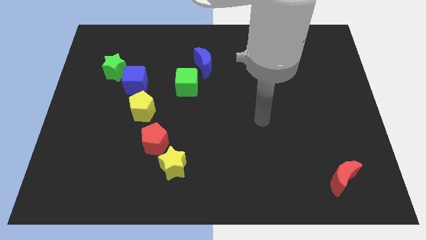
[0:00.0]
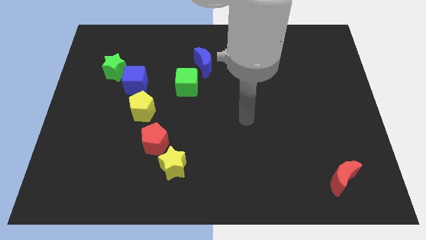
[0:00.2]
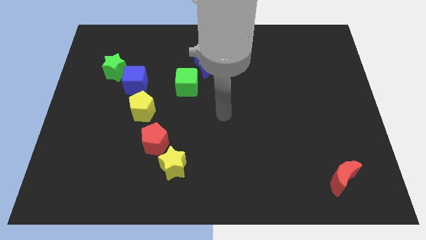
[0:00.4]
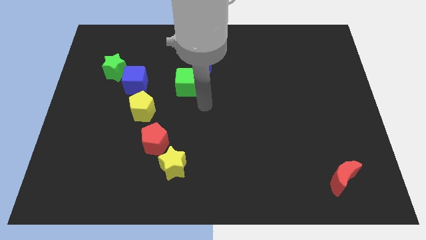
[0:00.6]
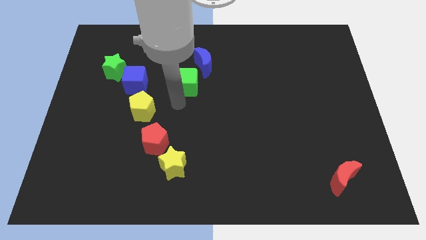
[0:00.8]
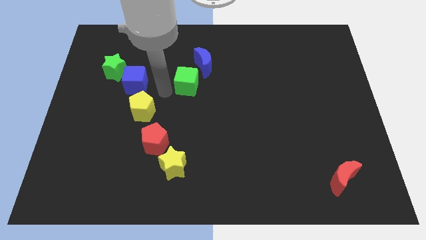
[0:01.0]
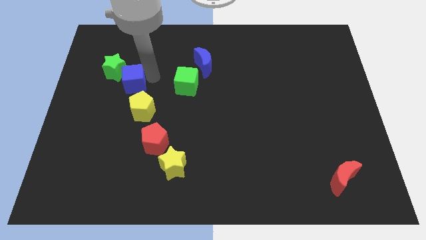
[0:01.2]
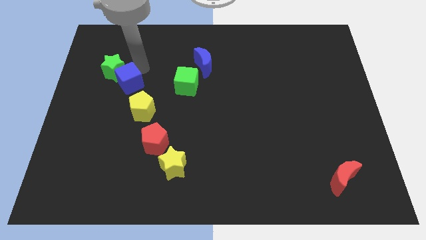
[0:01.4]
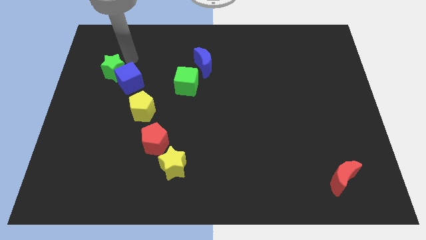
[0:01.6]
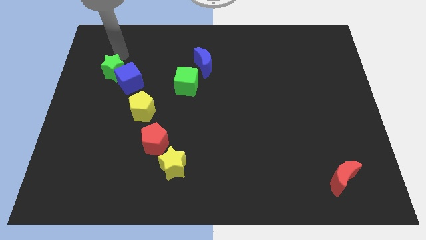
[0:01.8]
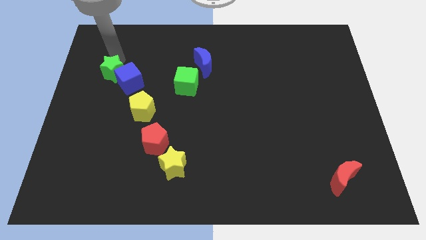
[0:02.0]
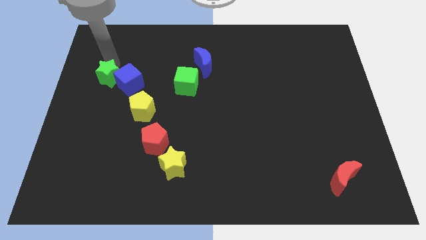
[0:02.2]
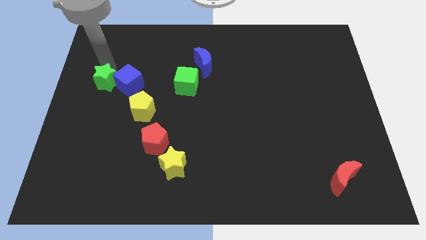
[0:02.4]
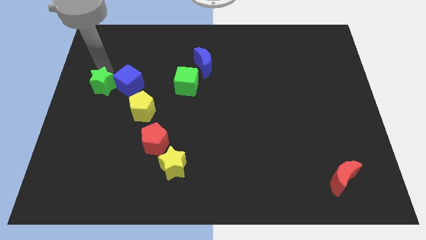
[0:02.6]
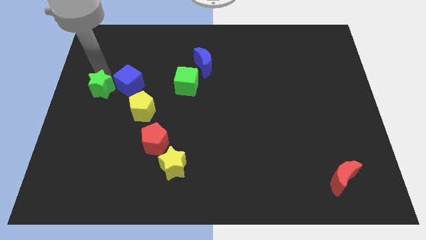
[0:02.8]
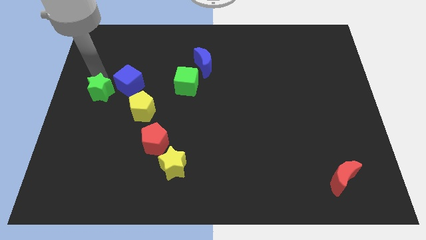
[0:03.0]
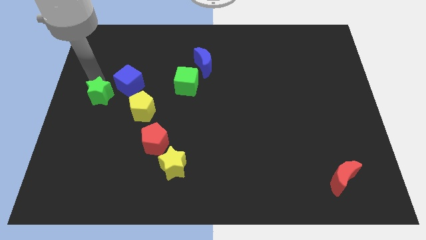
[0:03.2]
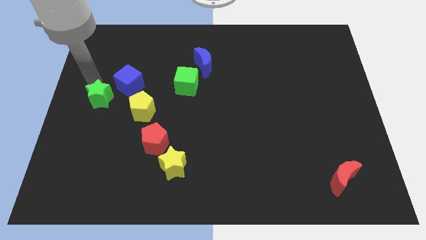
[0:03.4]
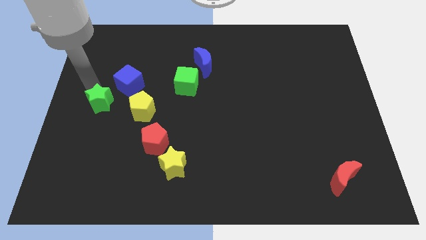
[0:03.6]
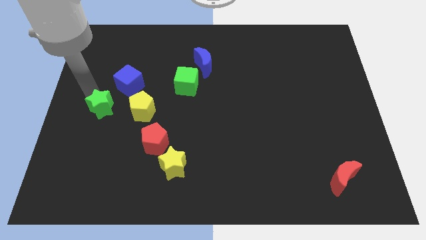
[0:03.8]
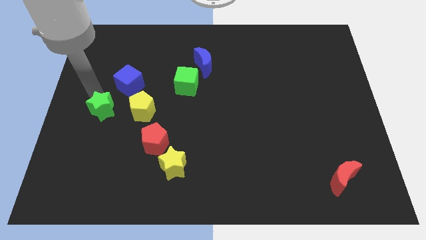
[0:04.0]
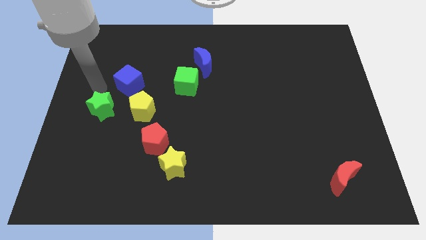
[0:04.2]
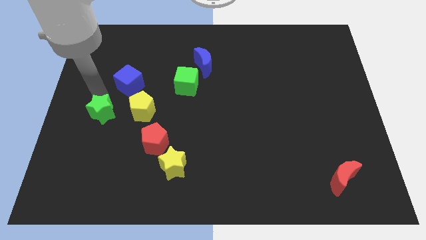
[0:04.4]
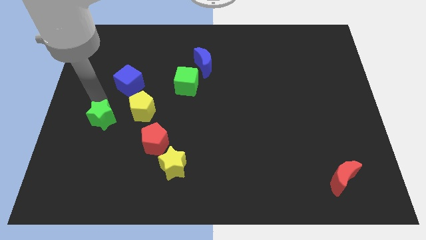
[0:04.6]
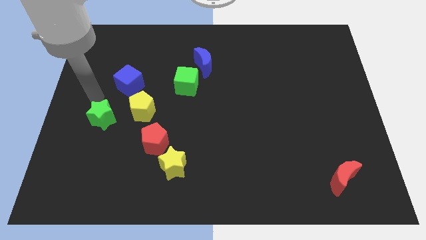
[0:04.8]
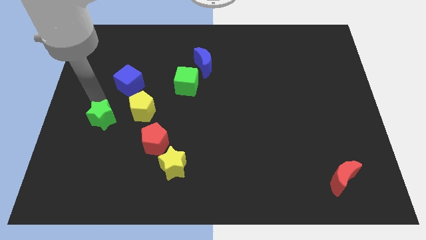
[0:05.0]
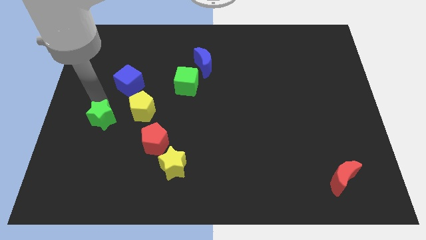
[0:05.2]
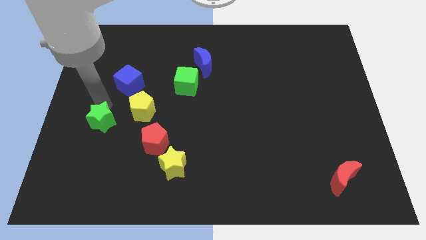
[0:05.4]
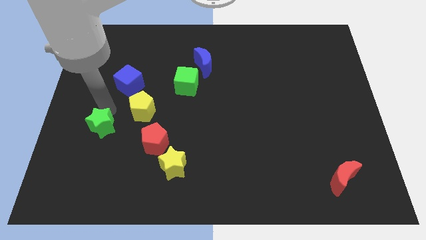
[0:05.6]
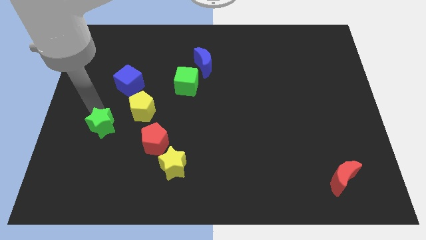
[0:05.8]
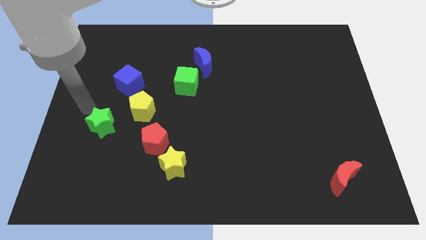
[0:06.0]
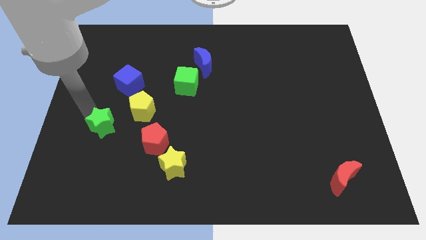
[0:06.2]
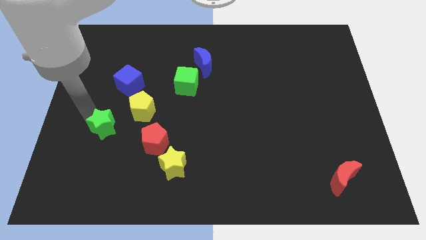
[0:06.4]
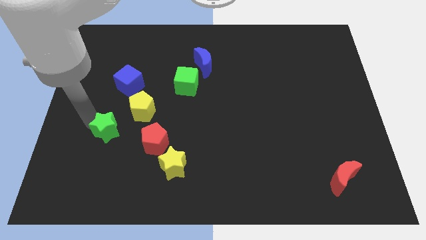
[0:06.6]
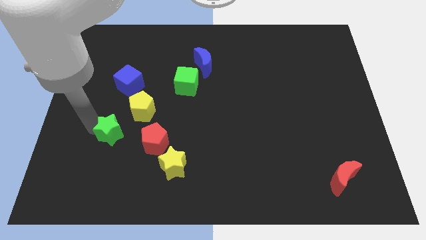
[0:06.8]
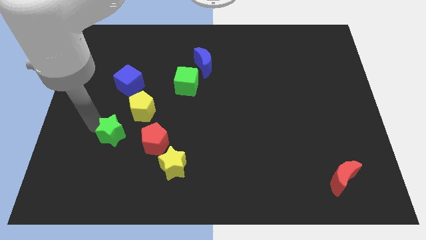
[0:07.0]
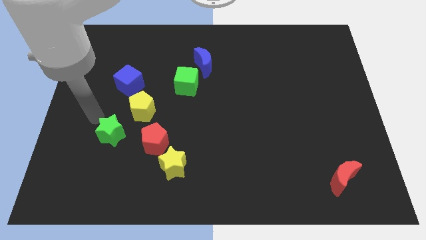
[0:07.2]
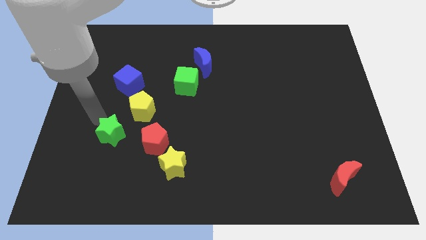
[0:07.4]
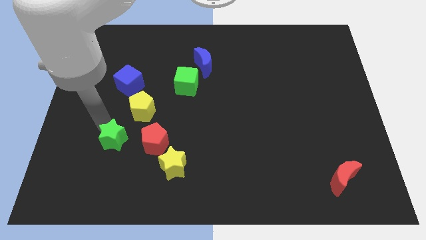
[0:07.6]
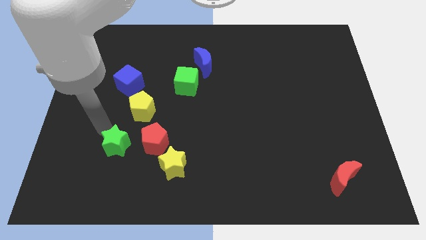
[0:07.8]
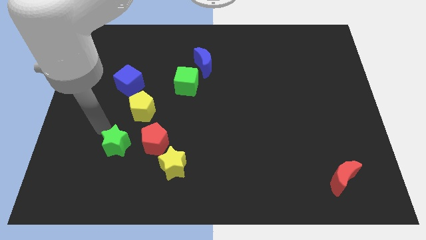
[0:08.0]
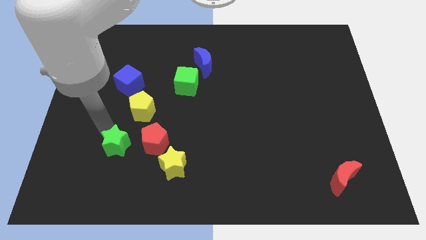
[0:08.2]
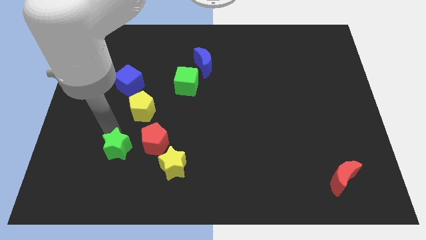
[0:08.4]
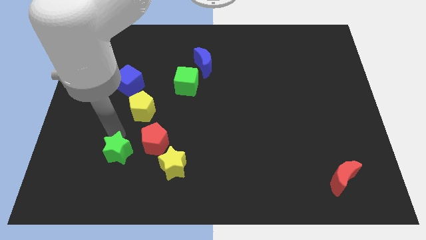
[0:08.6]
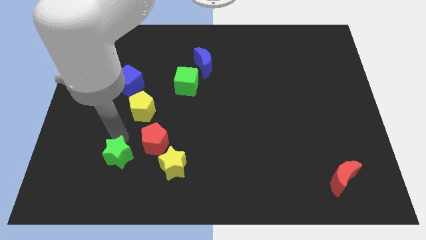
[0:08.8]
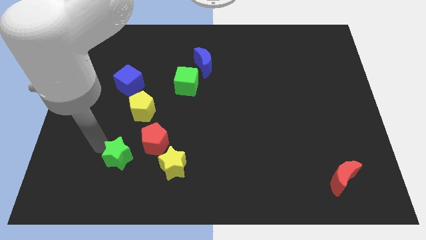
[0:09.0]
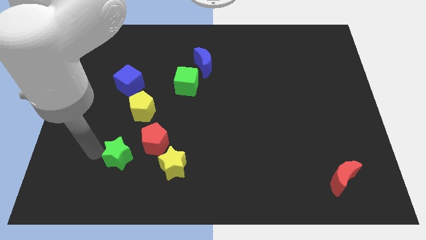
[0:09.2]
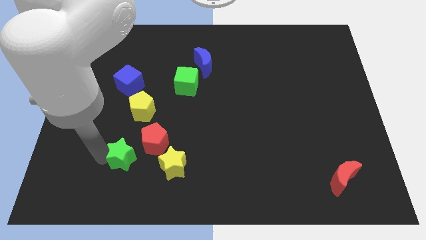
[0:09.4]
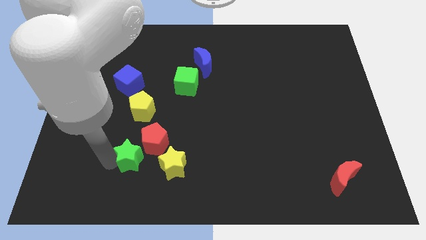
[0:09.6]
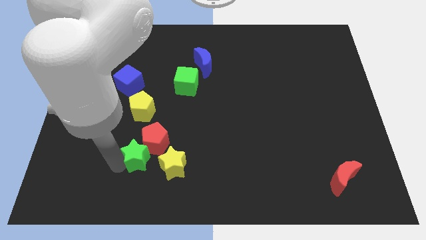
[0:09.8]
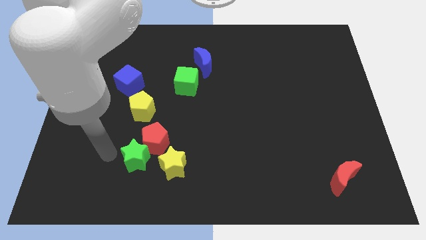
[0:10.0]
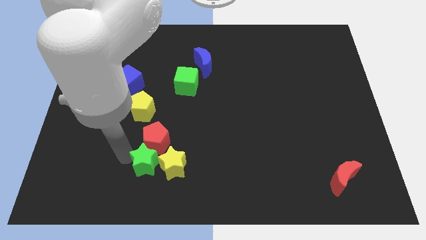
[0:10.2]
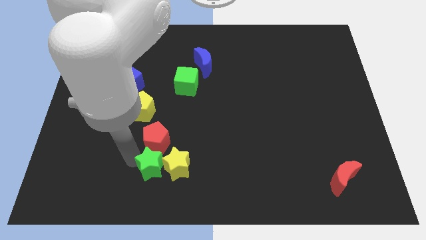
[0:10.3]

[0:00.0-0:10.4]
put the green star close to the yellow star
